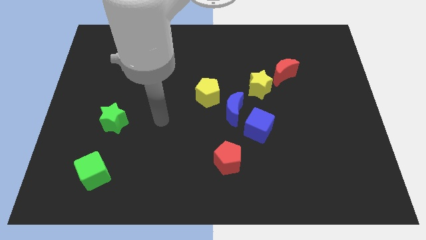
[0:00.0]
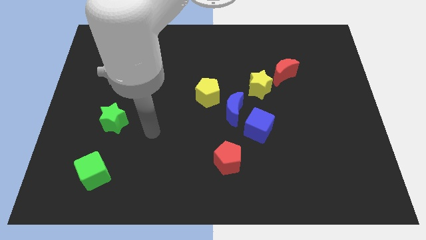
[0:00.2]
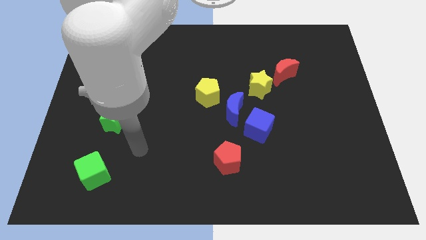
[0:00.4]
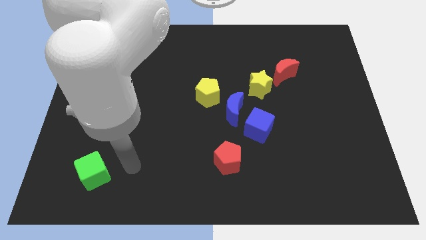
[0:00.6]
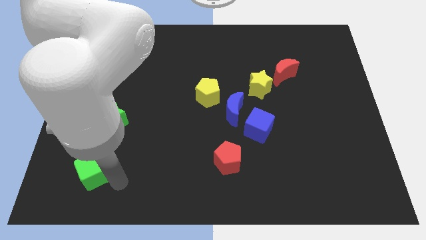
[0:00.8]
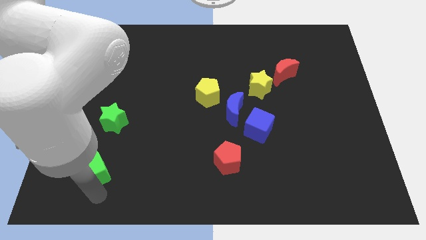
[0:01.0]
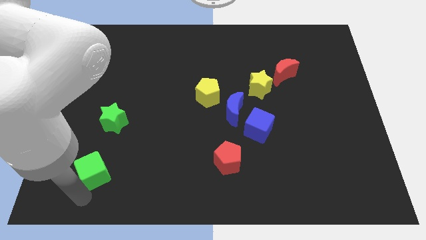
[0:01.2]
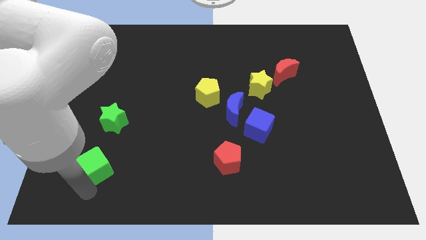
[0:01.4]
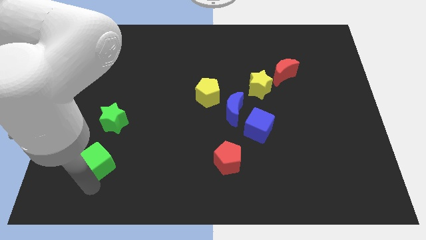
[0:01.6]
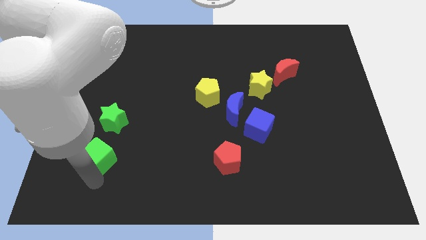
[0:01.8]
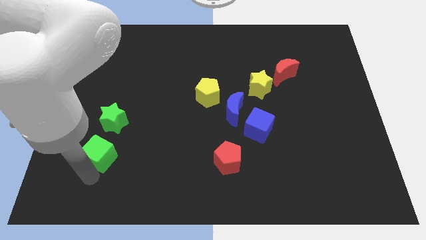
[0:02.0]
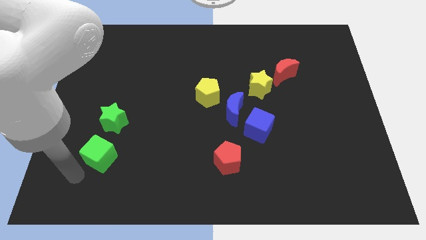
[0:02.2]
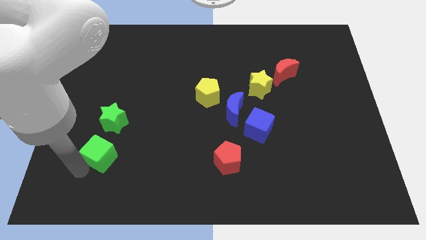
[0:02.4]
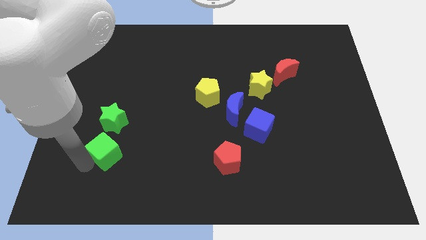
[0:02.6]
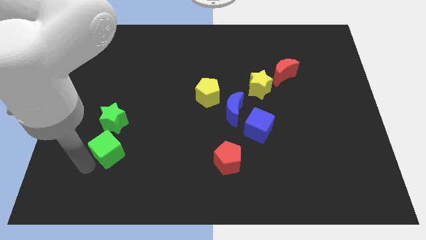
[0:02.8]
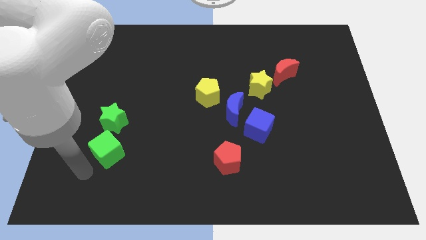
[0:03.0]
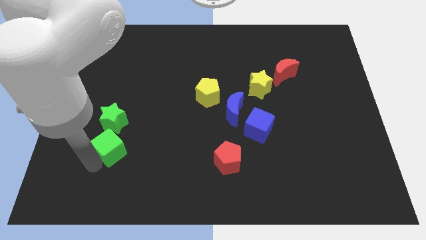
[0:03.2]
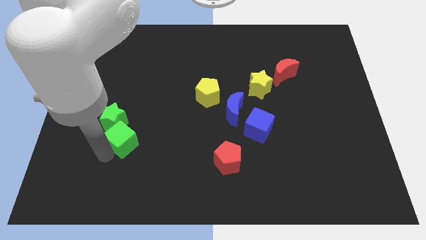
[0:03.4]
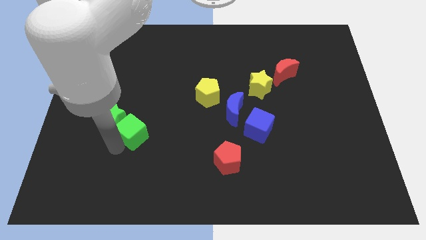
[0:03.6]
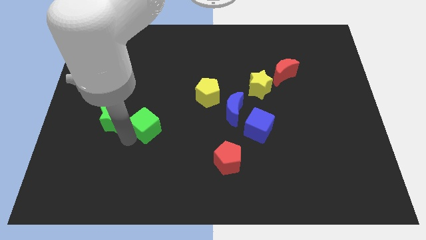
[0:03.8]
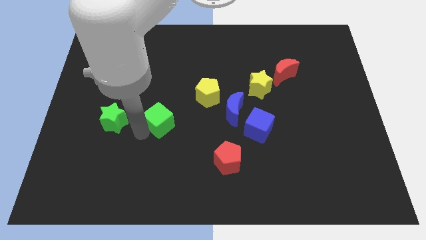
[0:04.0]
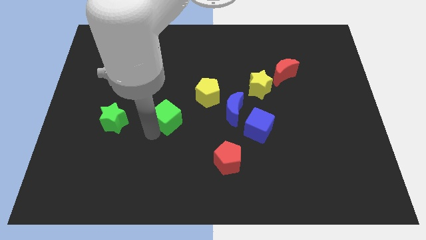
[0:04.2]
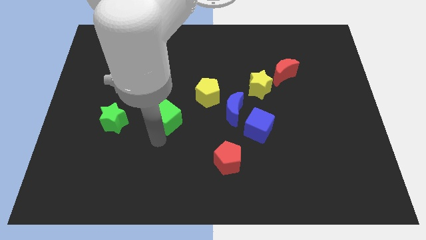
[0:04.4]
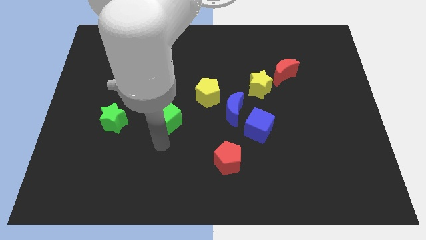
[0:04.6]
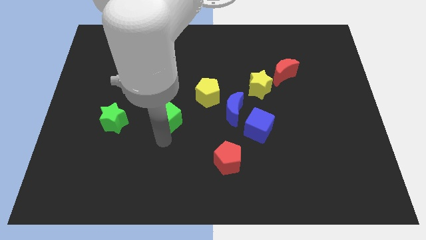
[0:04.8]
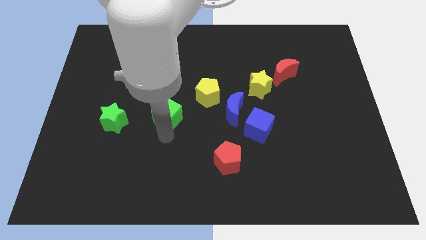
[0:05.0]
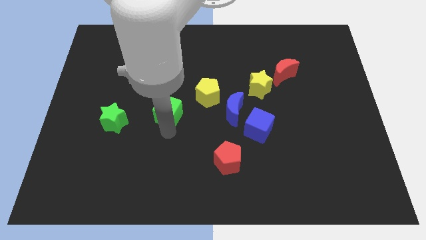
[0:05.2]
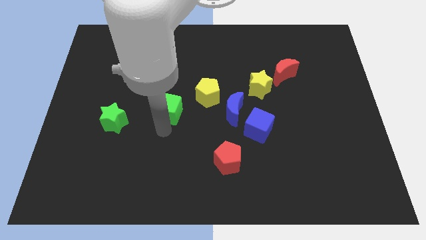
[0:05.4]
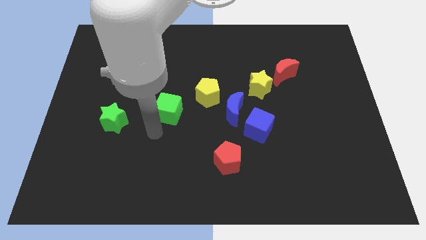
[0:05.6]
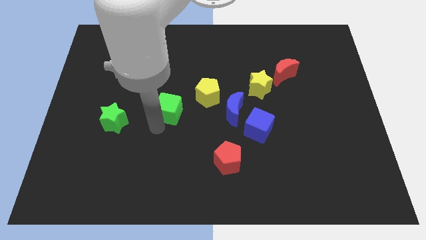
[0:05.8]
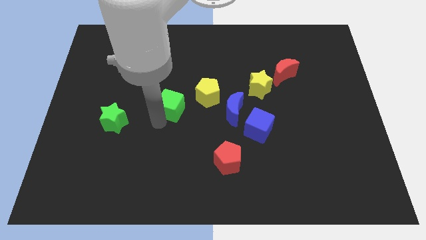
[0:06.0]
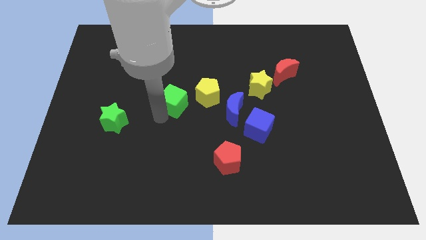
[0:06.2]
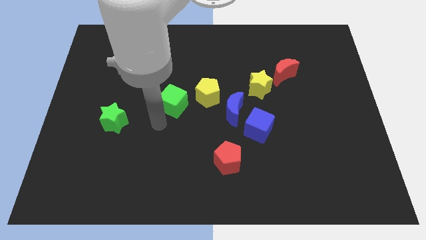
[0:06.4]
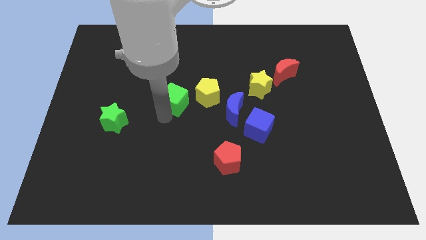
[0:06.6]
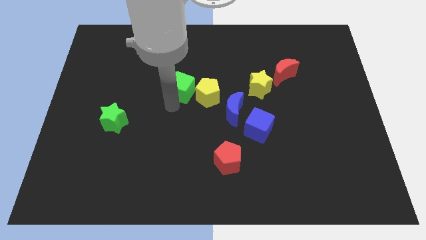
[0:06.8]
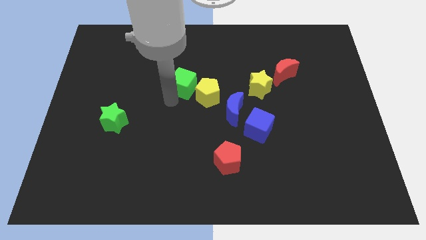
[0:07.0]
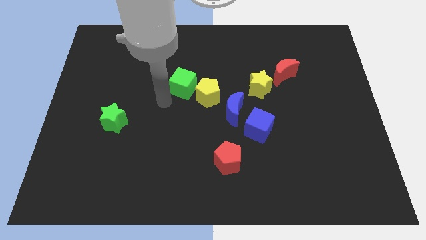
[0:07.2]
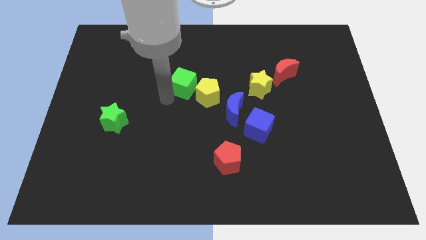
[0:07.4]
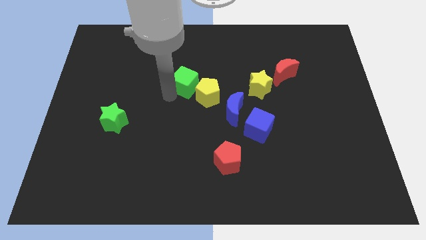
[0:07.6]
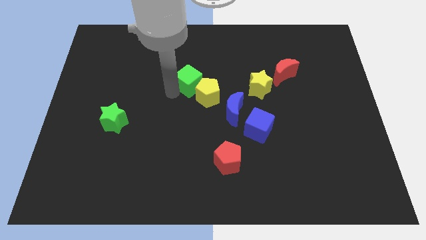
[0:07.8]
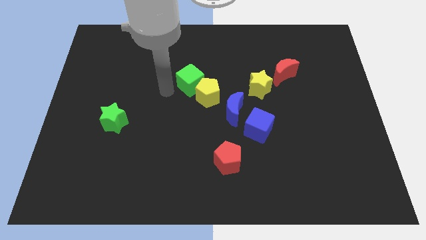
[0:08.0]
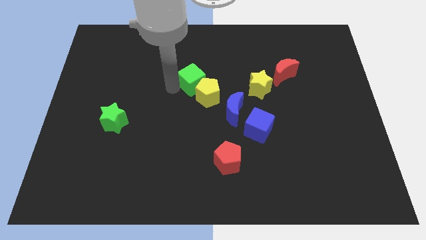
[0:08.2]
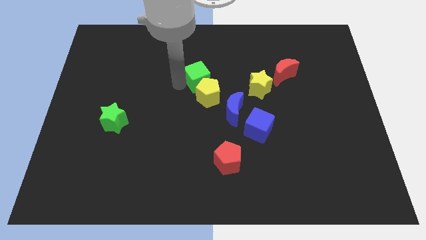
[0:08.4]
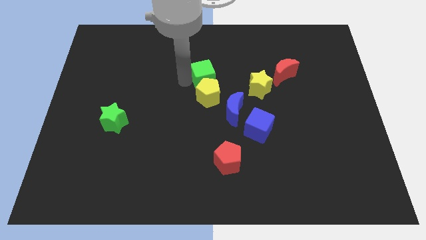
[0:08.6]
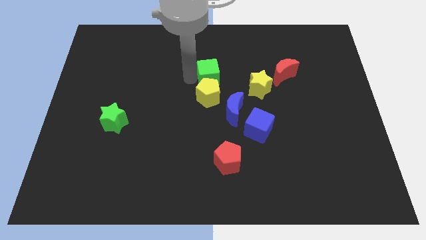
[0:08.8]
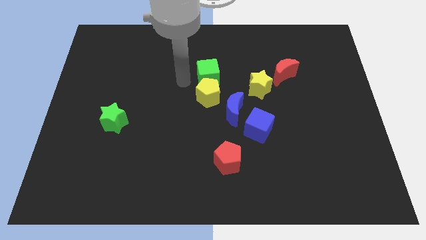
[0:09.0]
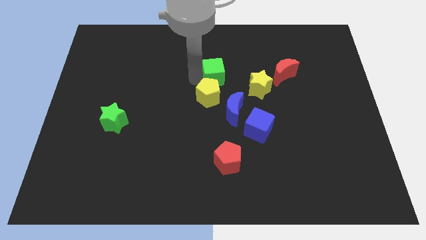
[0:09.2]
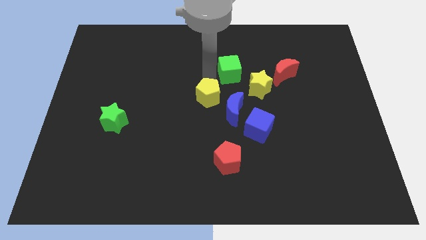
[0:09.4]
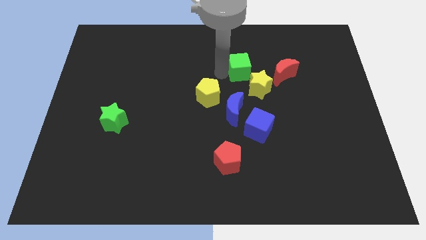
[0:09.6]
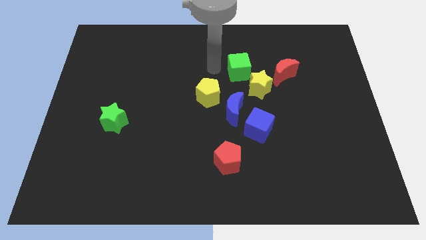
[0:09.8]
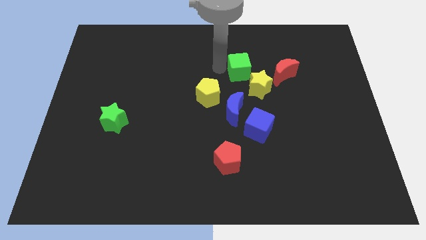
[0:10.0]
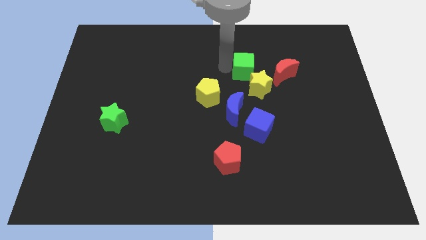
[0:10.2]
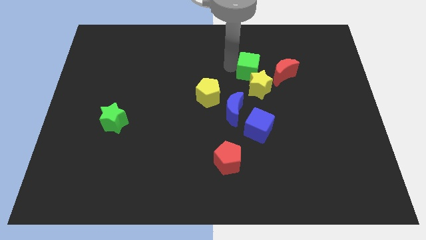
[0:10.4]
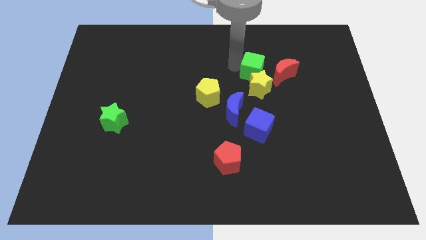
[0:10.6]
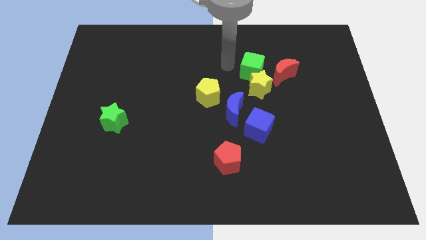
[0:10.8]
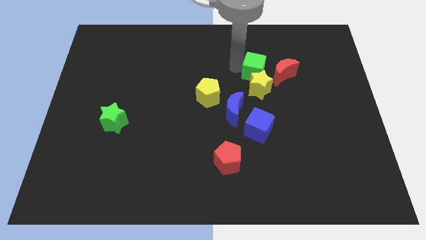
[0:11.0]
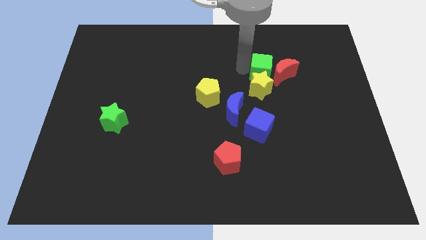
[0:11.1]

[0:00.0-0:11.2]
slide the green cube towards the red moon

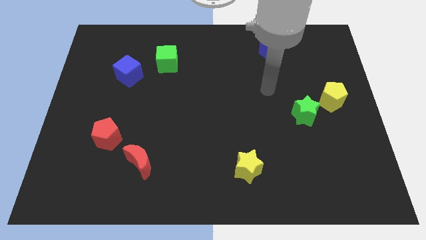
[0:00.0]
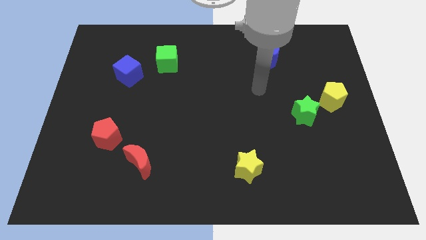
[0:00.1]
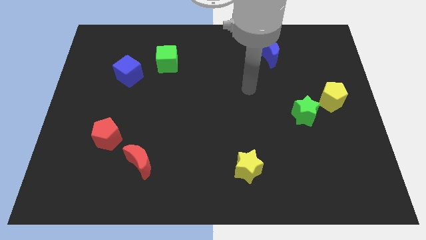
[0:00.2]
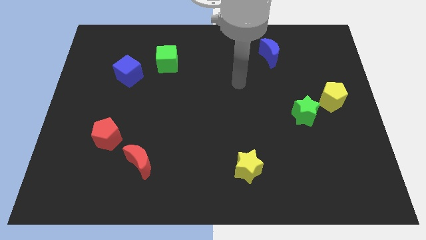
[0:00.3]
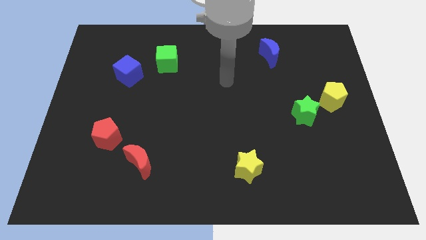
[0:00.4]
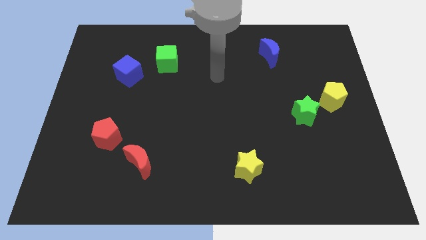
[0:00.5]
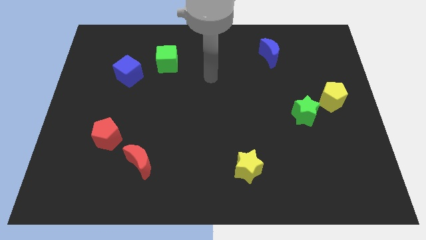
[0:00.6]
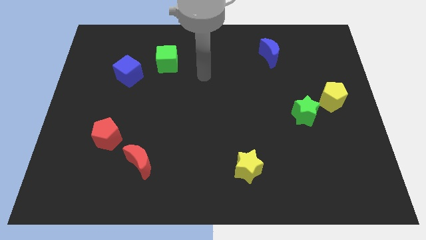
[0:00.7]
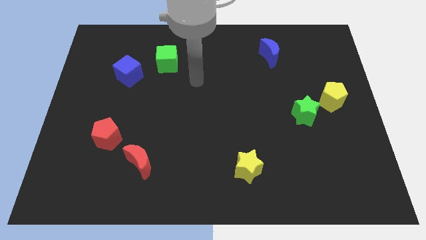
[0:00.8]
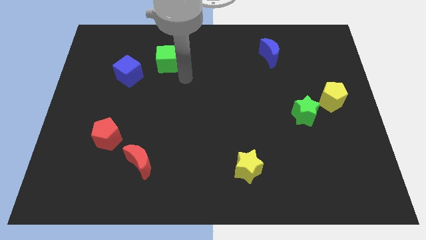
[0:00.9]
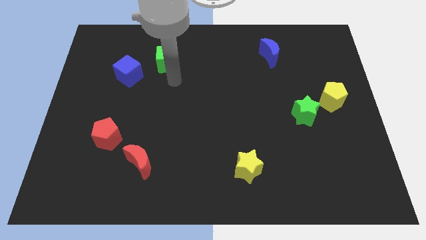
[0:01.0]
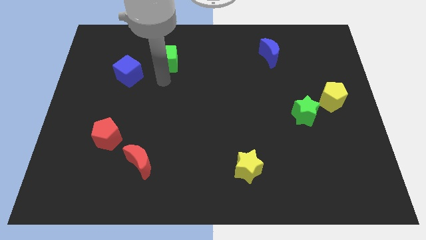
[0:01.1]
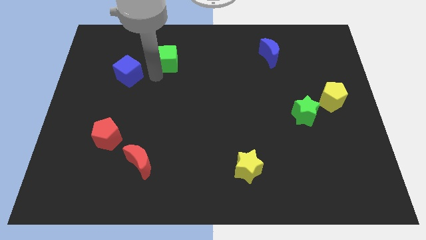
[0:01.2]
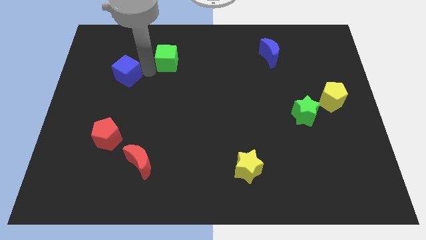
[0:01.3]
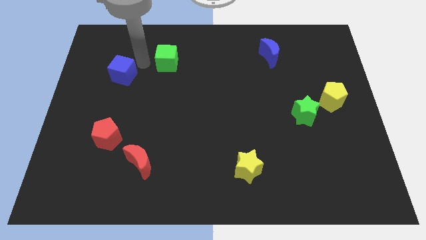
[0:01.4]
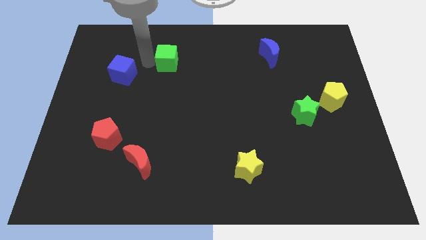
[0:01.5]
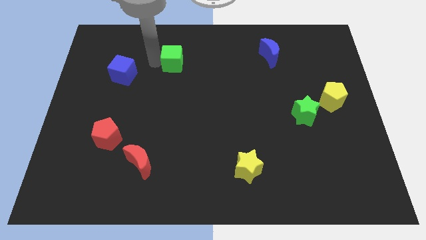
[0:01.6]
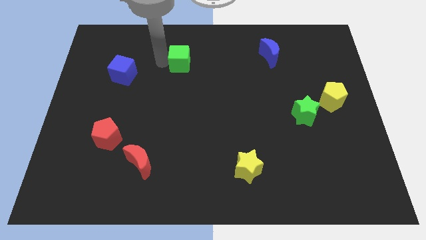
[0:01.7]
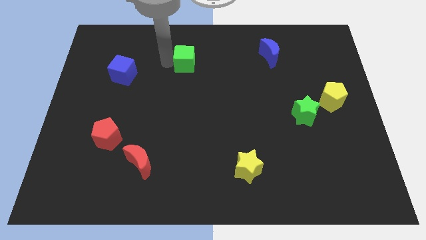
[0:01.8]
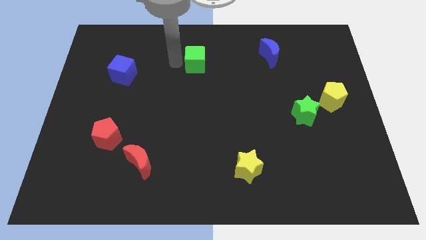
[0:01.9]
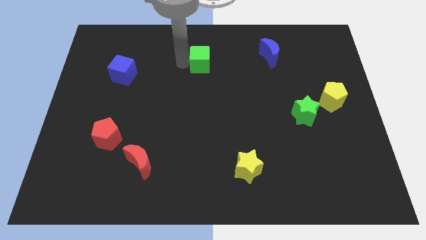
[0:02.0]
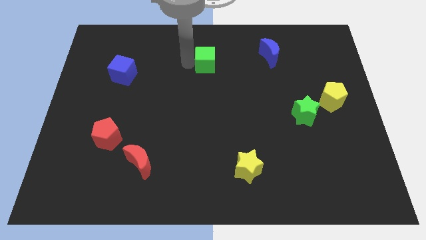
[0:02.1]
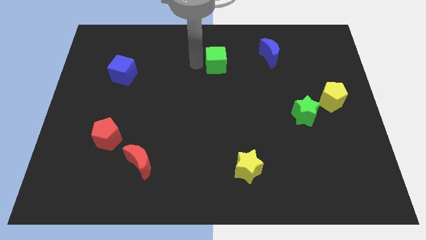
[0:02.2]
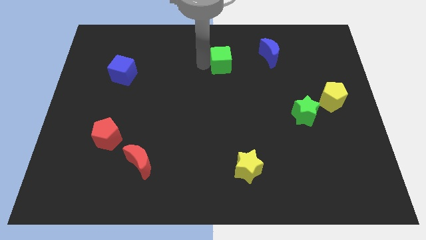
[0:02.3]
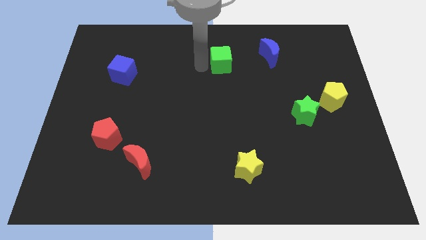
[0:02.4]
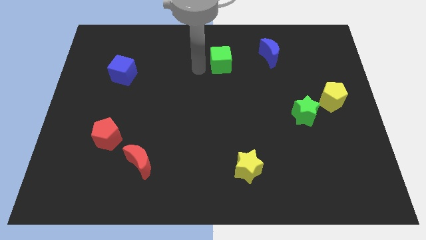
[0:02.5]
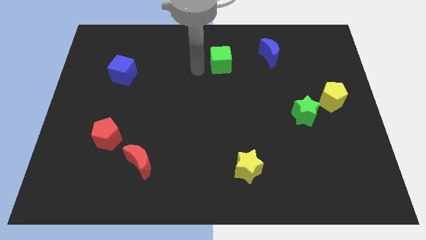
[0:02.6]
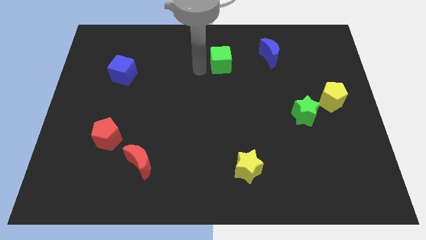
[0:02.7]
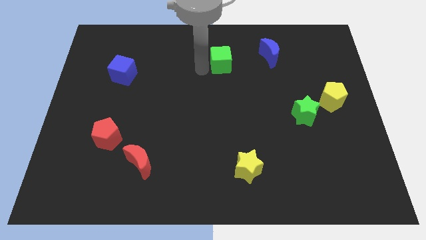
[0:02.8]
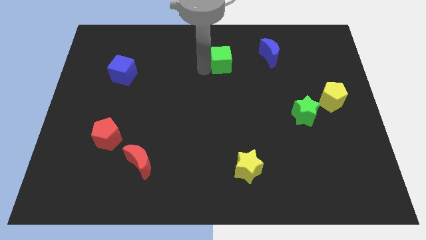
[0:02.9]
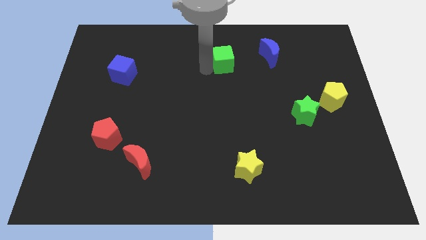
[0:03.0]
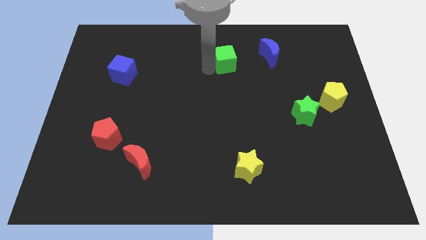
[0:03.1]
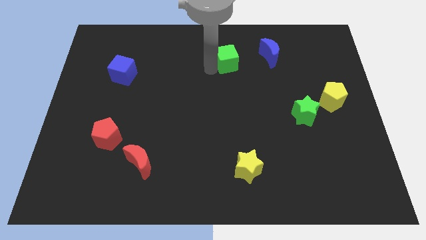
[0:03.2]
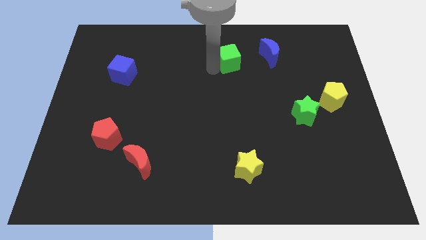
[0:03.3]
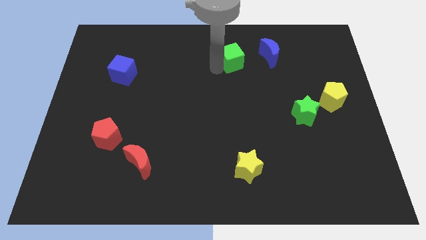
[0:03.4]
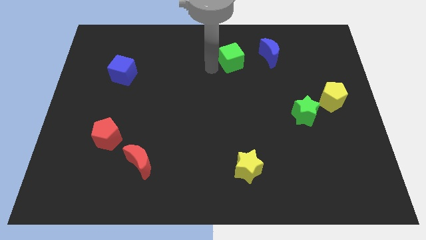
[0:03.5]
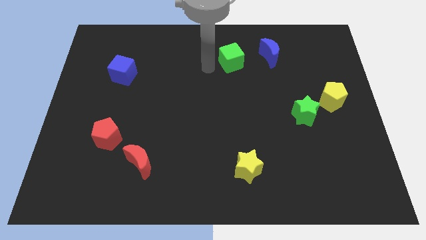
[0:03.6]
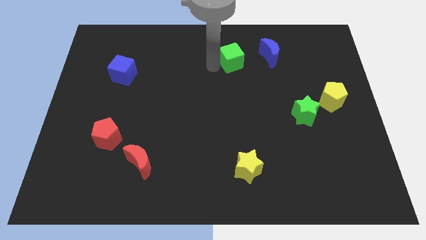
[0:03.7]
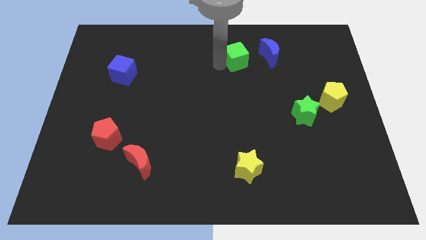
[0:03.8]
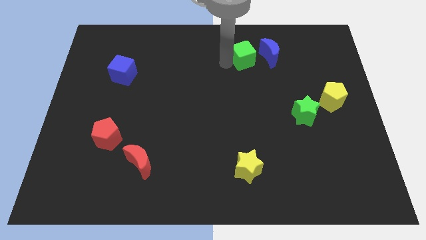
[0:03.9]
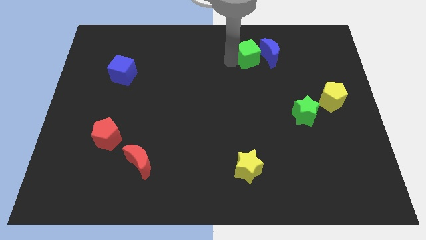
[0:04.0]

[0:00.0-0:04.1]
move the green cube close to the blue moon
